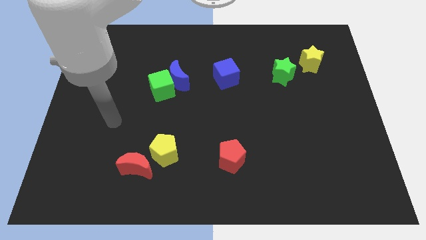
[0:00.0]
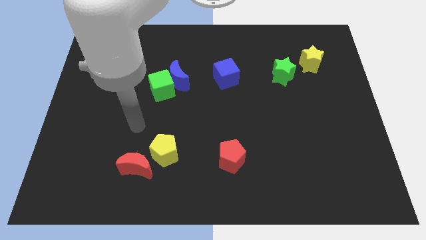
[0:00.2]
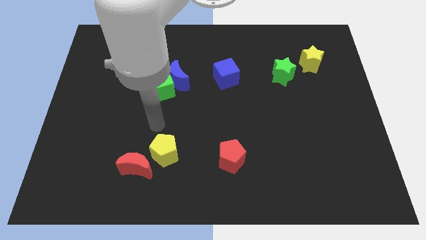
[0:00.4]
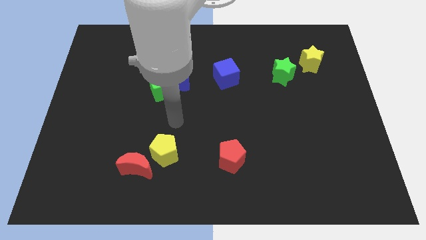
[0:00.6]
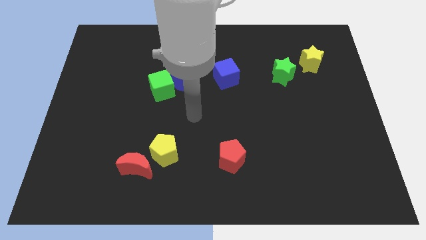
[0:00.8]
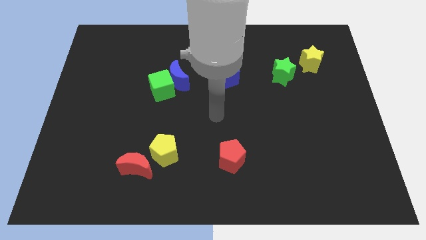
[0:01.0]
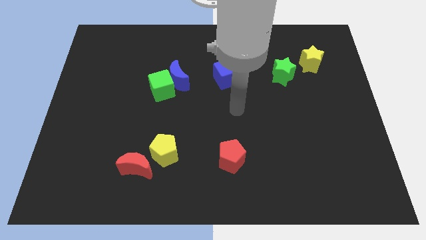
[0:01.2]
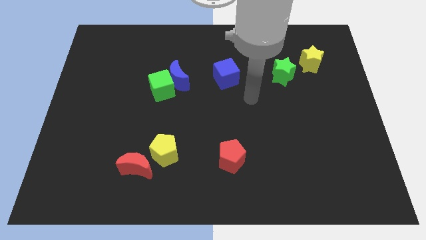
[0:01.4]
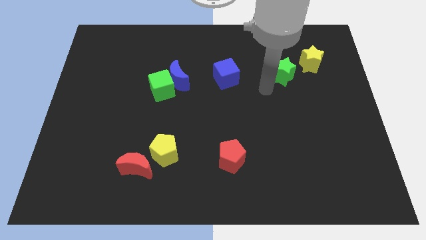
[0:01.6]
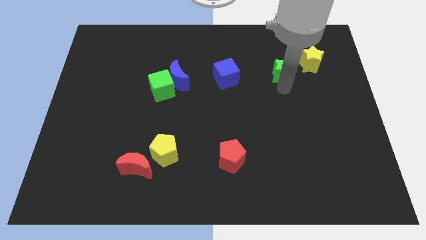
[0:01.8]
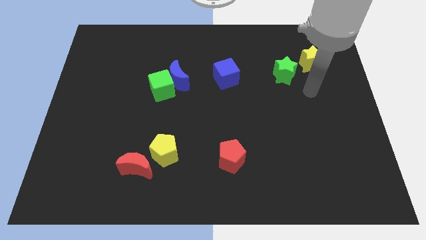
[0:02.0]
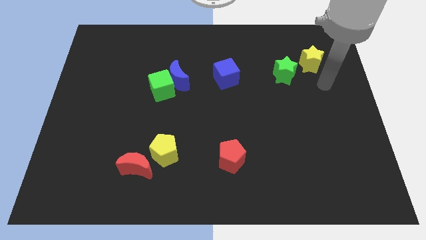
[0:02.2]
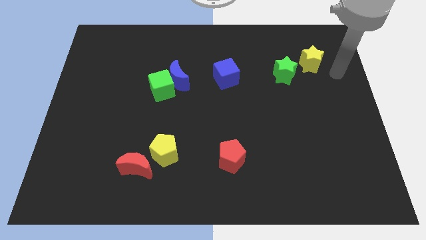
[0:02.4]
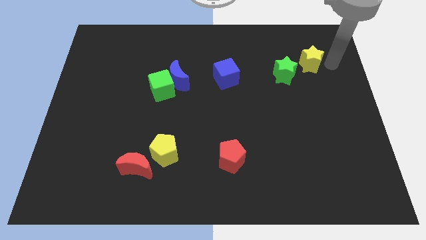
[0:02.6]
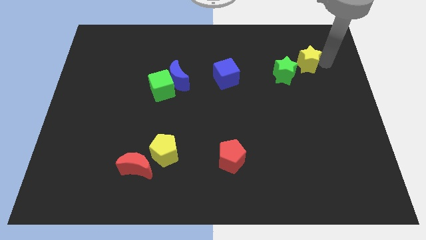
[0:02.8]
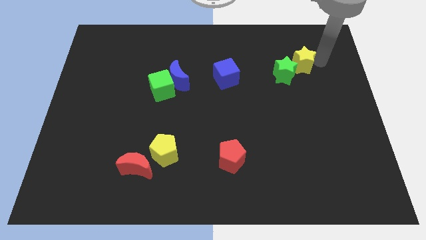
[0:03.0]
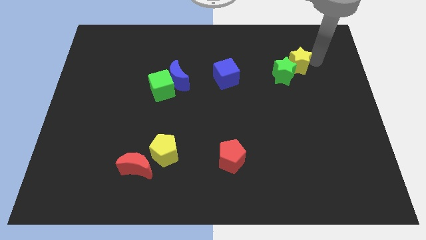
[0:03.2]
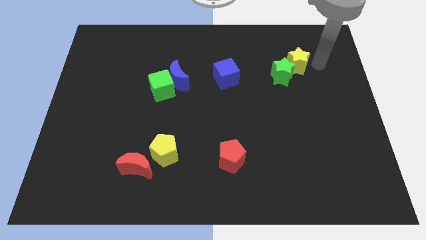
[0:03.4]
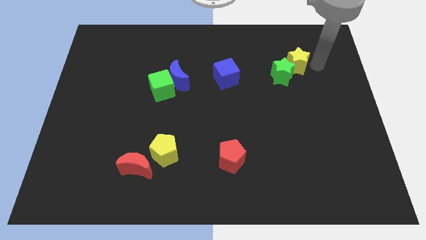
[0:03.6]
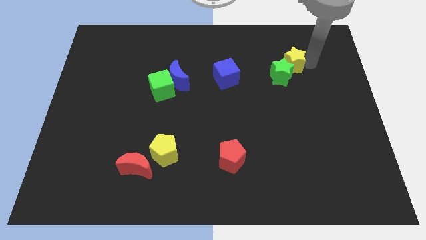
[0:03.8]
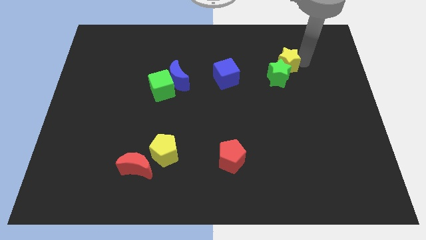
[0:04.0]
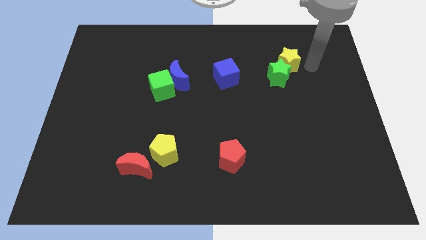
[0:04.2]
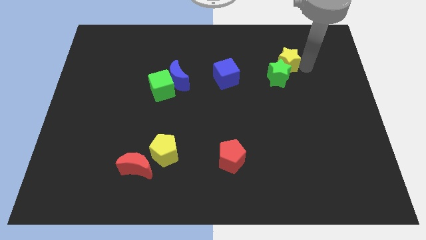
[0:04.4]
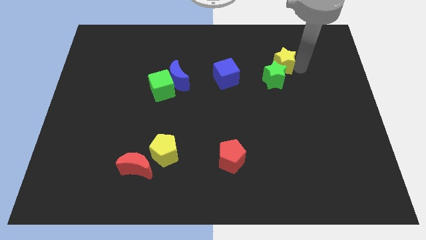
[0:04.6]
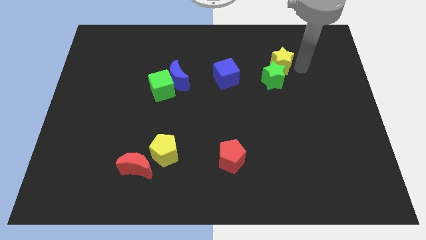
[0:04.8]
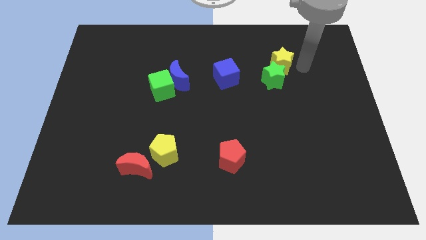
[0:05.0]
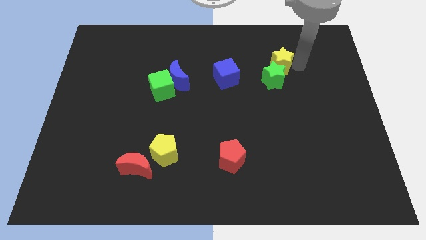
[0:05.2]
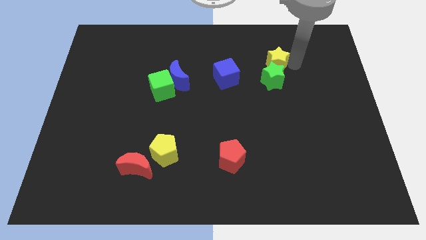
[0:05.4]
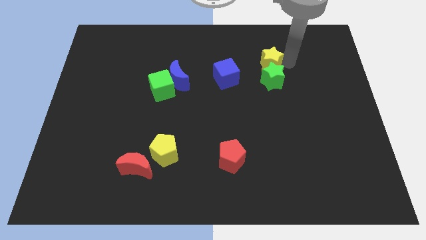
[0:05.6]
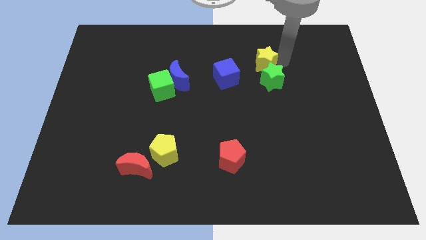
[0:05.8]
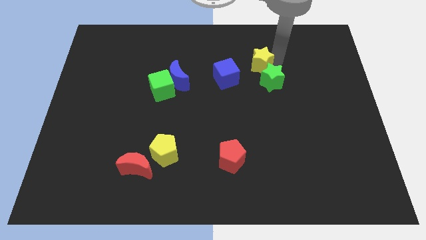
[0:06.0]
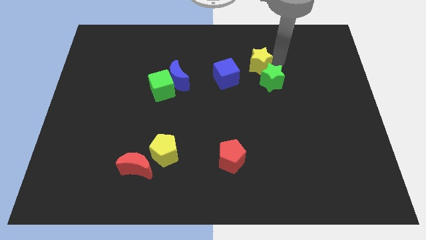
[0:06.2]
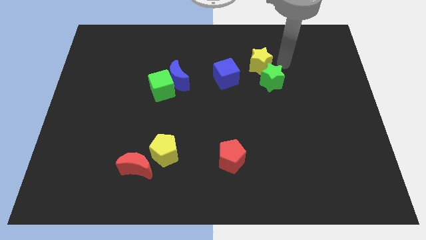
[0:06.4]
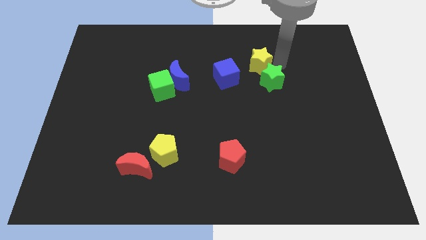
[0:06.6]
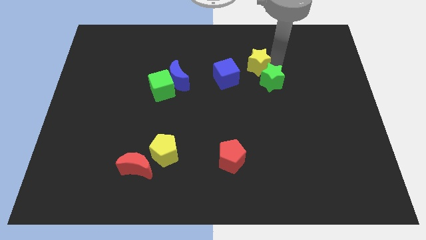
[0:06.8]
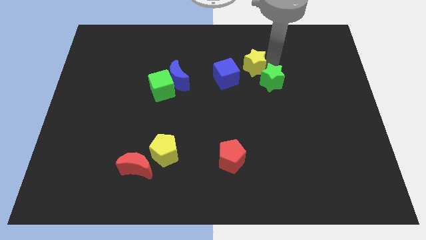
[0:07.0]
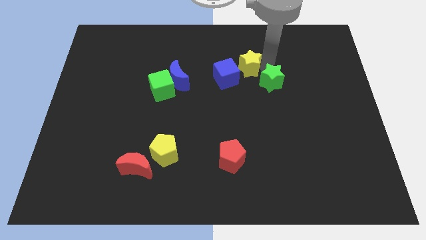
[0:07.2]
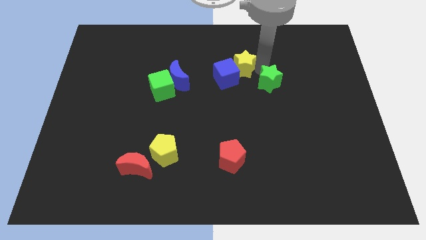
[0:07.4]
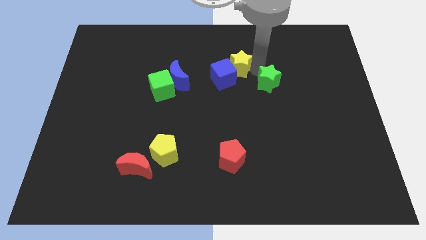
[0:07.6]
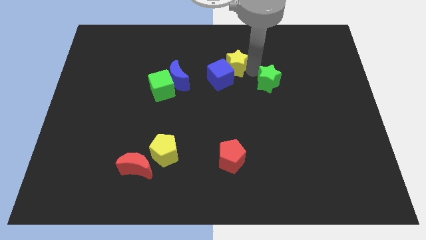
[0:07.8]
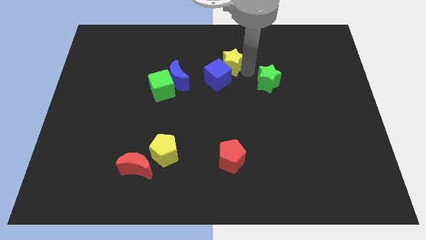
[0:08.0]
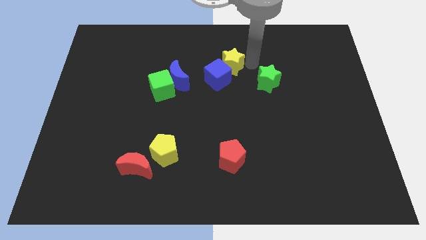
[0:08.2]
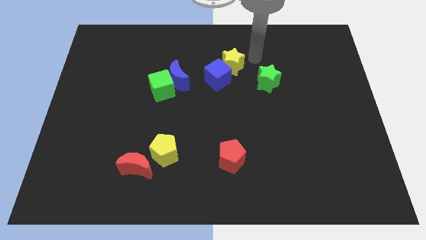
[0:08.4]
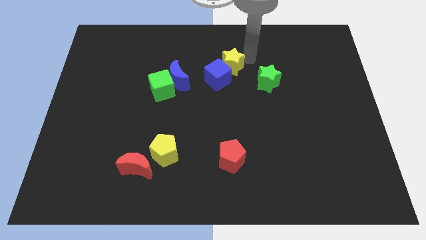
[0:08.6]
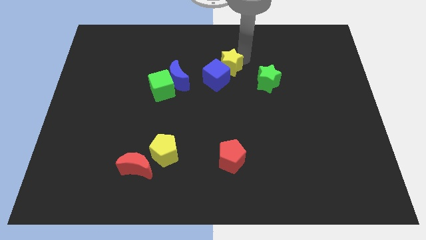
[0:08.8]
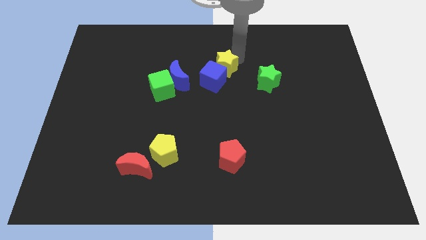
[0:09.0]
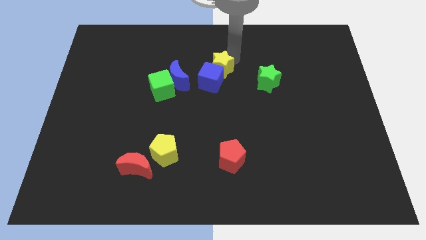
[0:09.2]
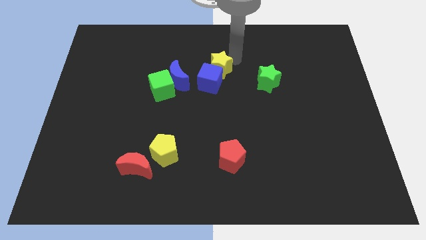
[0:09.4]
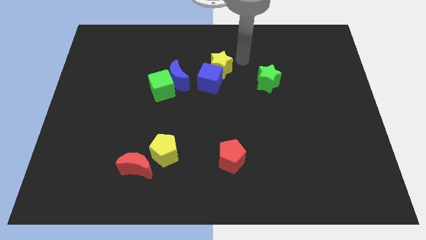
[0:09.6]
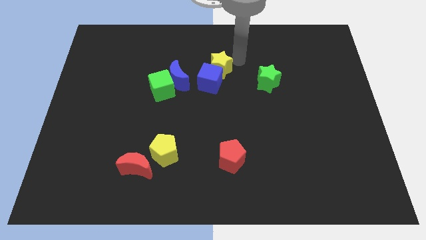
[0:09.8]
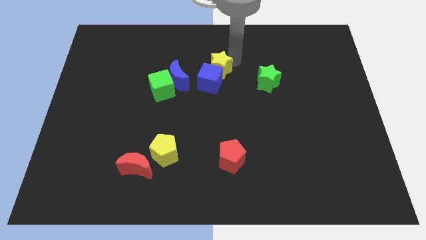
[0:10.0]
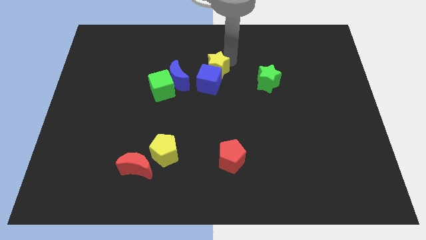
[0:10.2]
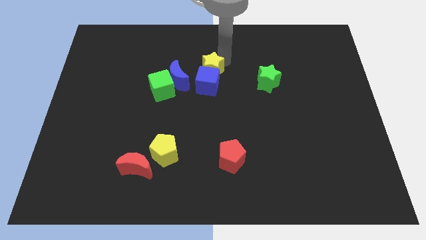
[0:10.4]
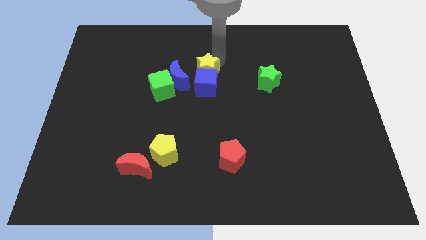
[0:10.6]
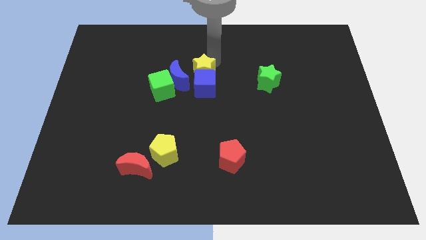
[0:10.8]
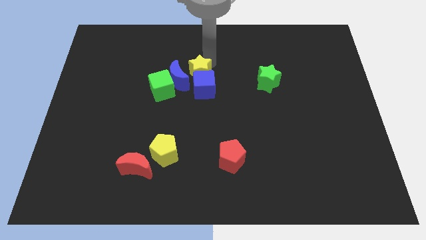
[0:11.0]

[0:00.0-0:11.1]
put the yellow star towards the blue moon

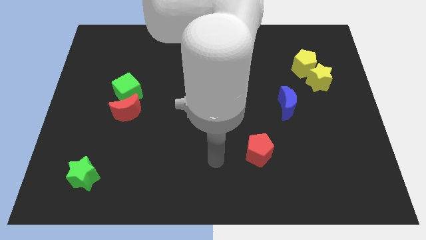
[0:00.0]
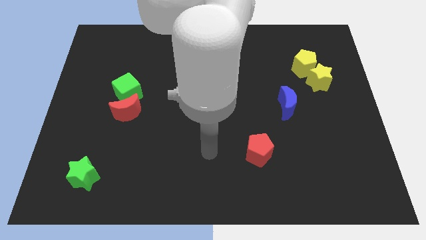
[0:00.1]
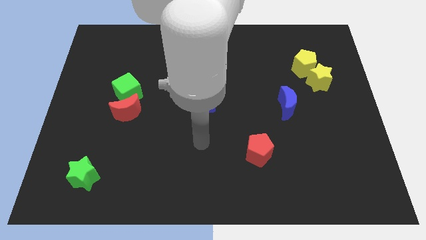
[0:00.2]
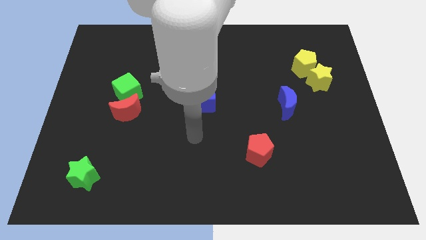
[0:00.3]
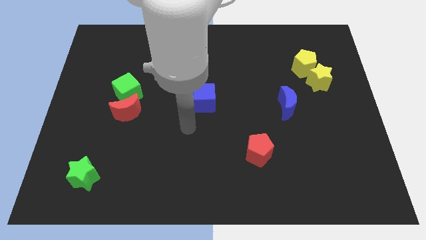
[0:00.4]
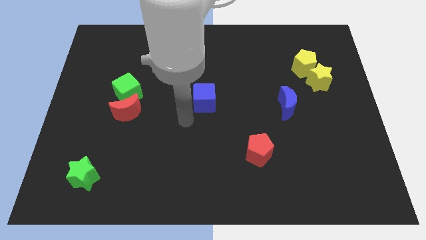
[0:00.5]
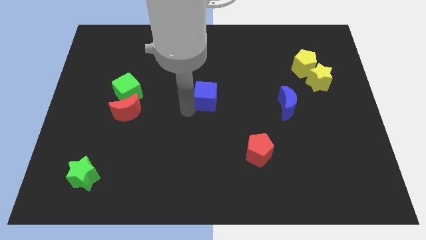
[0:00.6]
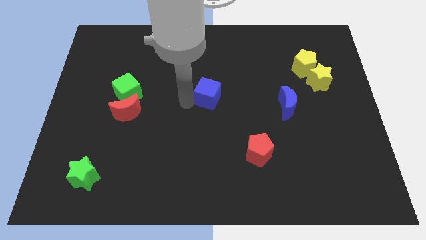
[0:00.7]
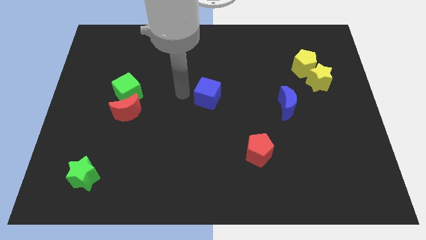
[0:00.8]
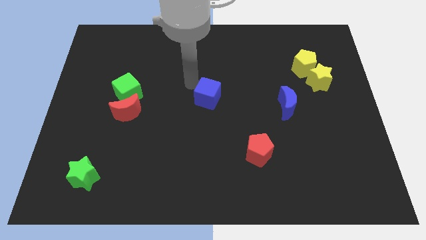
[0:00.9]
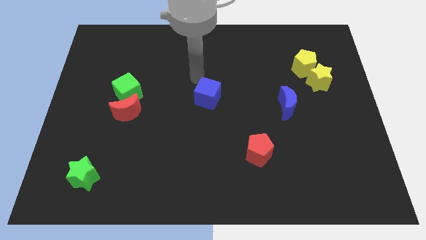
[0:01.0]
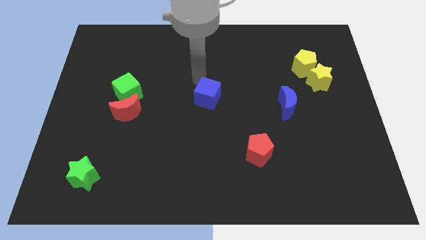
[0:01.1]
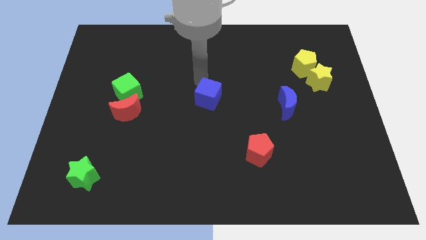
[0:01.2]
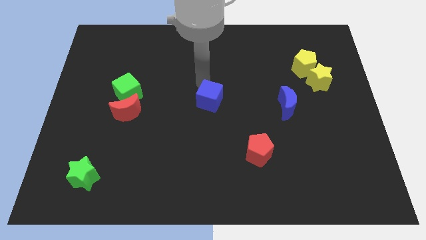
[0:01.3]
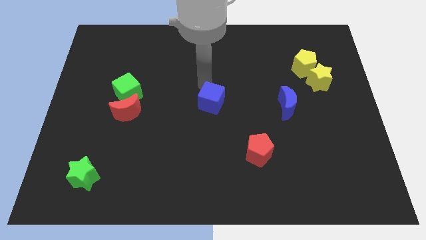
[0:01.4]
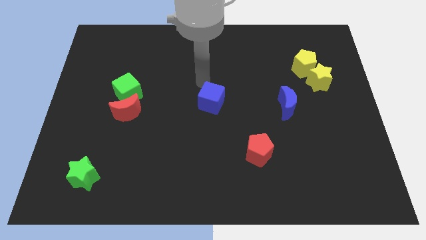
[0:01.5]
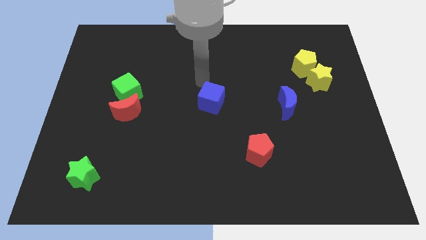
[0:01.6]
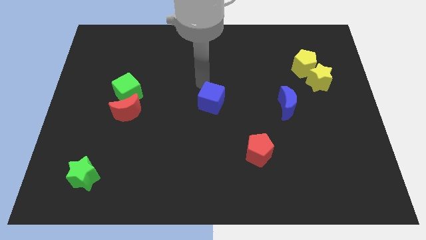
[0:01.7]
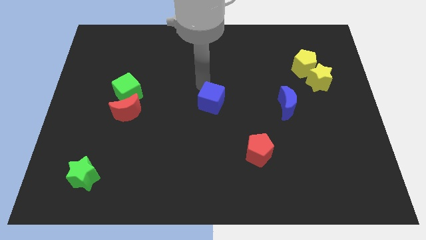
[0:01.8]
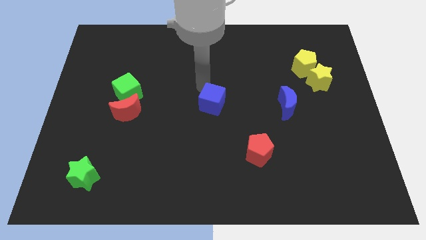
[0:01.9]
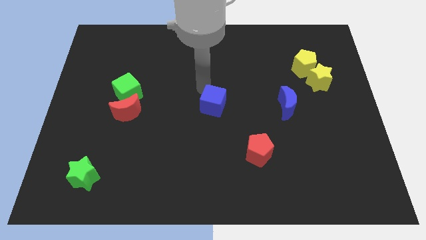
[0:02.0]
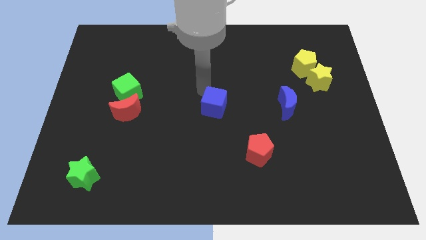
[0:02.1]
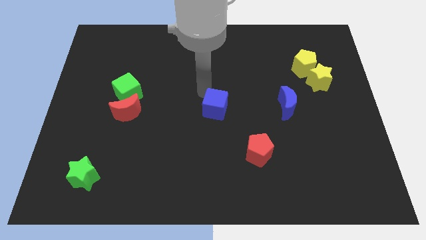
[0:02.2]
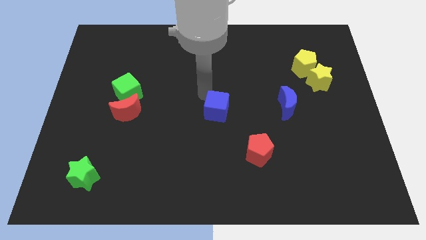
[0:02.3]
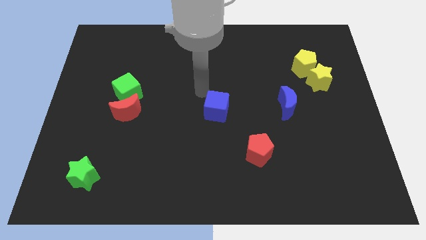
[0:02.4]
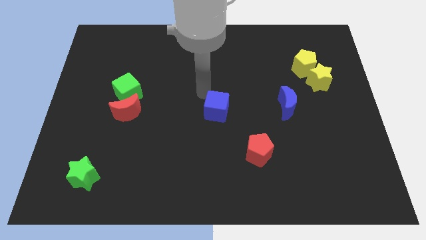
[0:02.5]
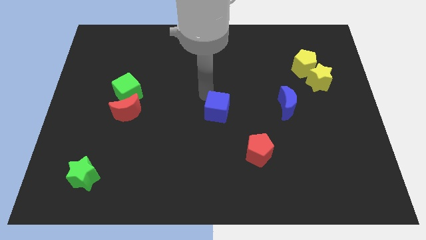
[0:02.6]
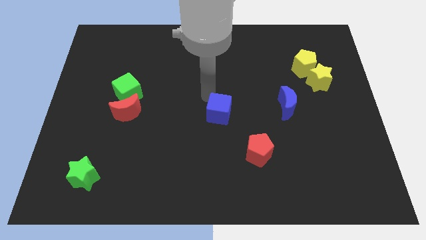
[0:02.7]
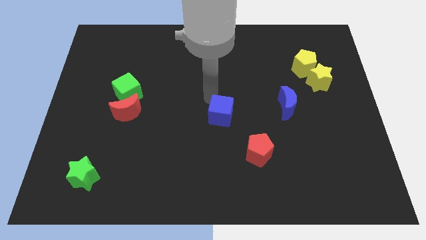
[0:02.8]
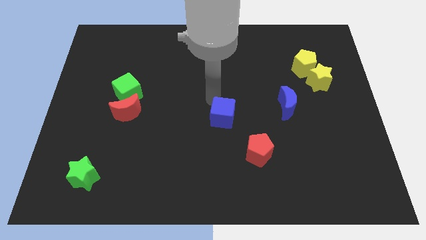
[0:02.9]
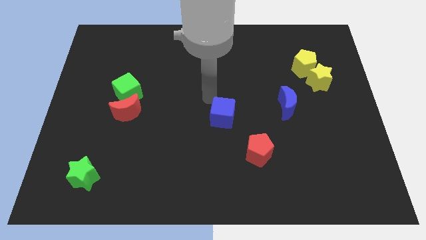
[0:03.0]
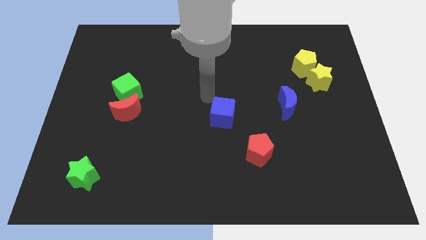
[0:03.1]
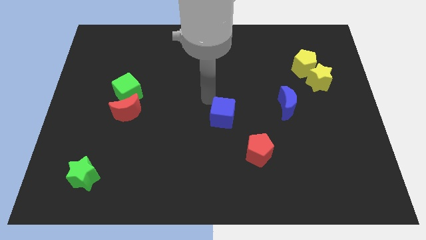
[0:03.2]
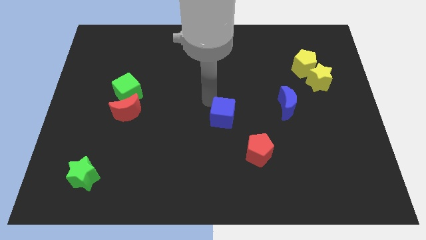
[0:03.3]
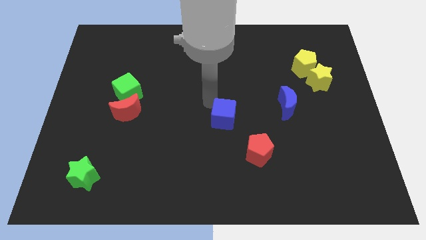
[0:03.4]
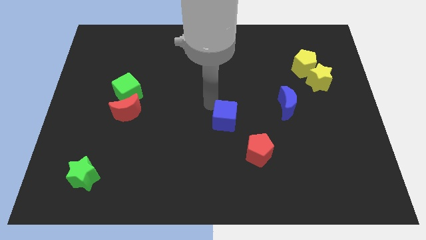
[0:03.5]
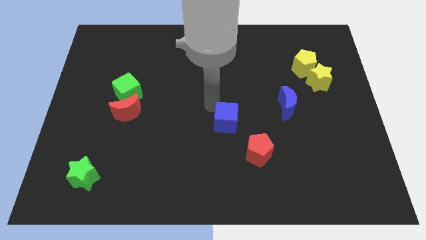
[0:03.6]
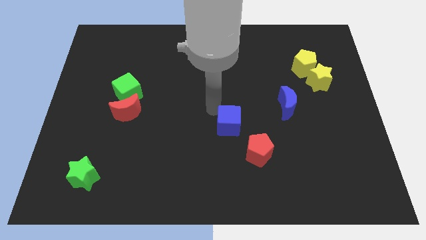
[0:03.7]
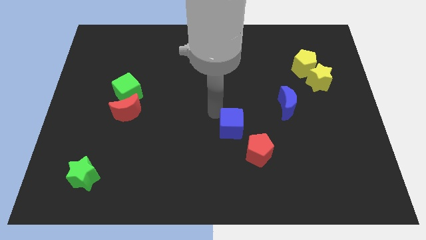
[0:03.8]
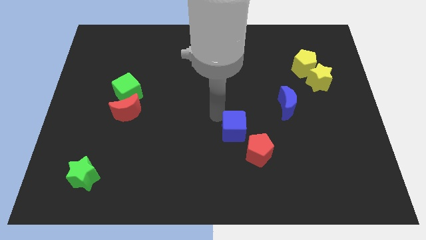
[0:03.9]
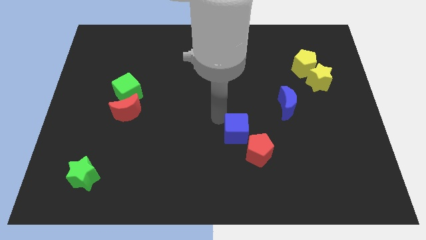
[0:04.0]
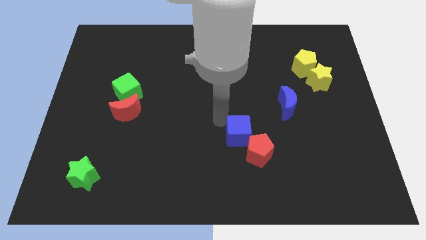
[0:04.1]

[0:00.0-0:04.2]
slide the blue cube close to the red pentagon
